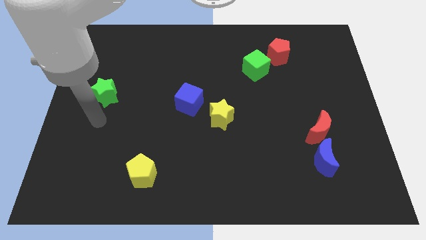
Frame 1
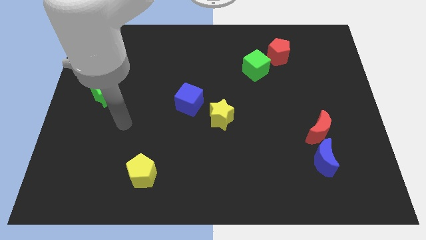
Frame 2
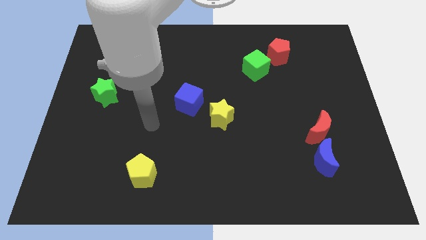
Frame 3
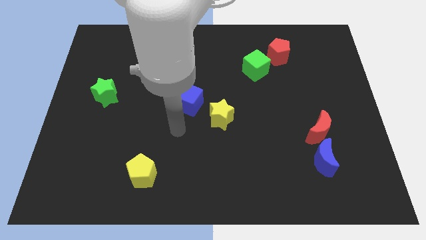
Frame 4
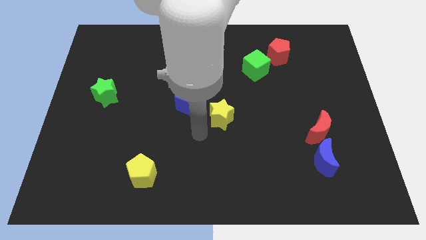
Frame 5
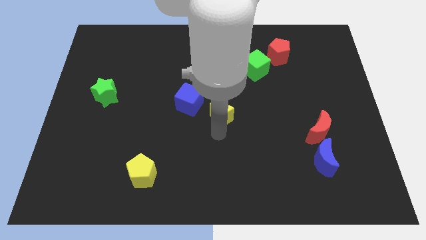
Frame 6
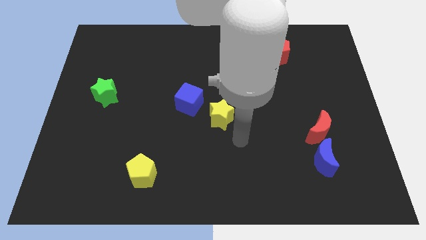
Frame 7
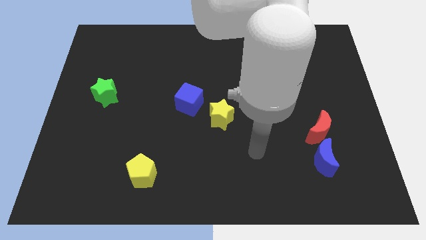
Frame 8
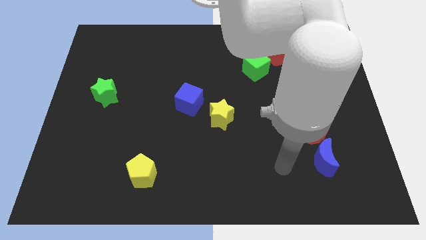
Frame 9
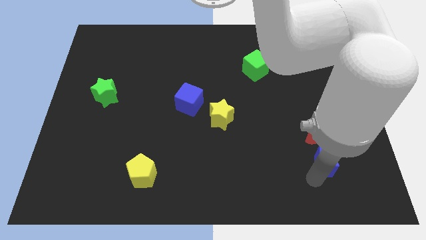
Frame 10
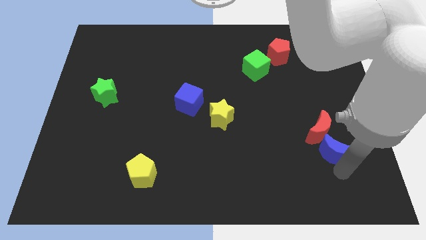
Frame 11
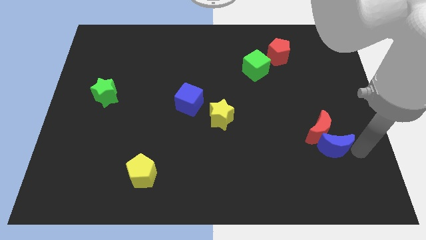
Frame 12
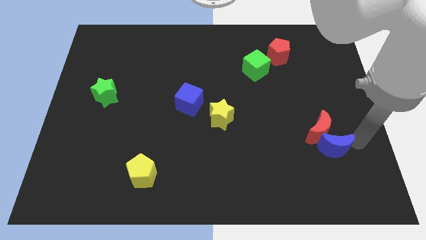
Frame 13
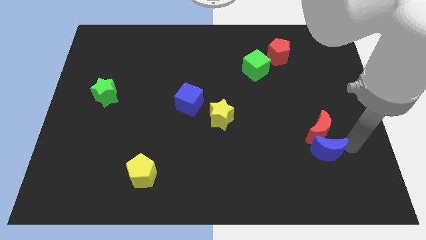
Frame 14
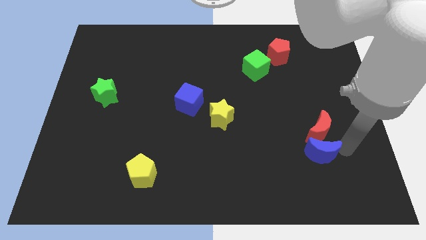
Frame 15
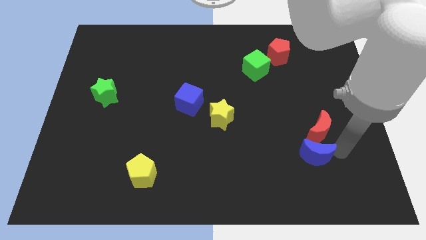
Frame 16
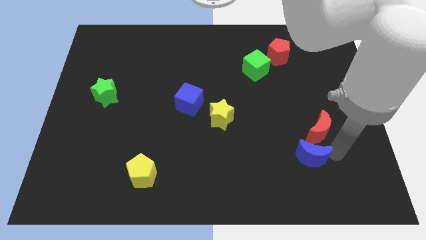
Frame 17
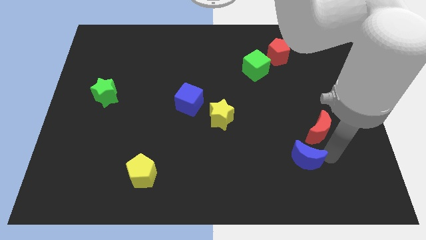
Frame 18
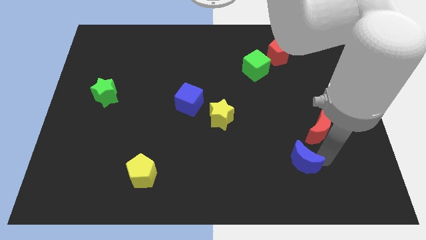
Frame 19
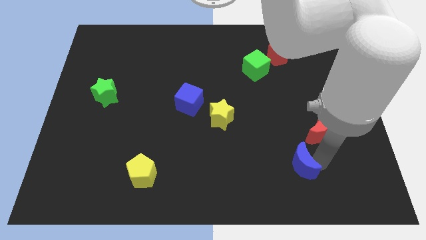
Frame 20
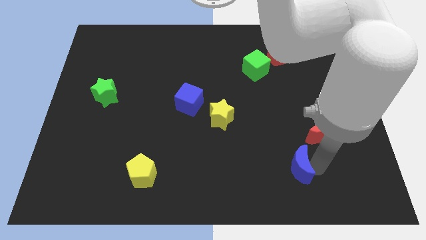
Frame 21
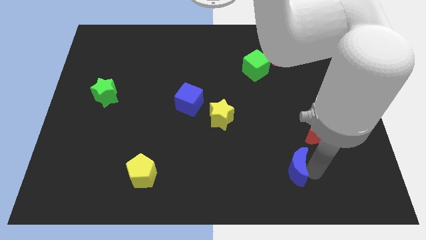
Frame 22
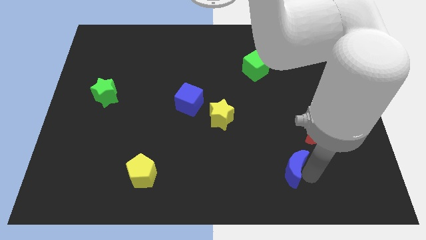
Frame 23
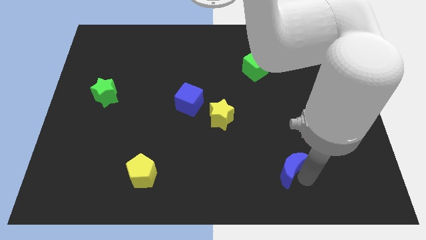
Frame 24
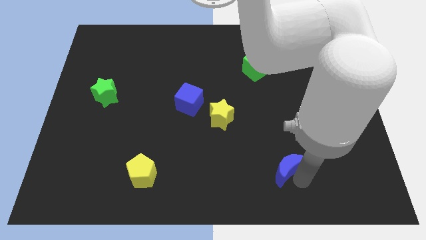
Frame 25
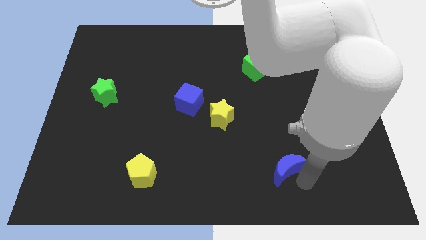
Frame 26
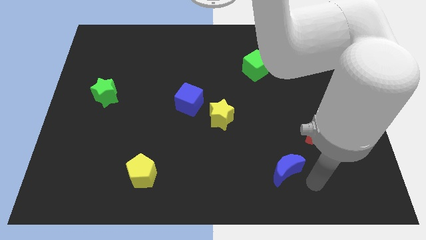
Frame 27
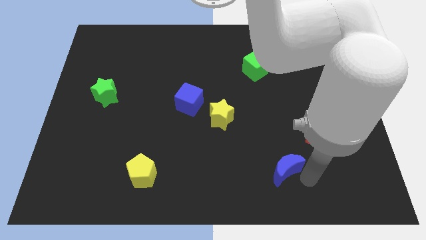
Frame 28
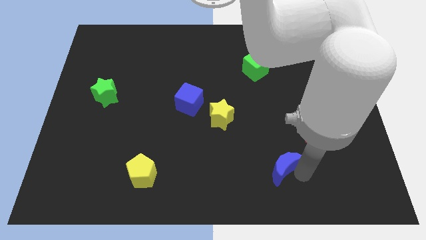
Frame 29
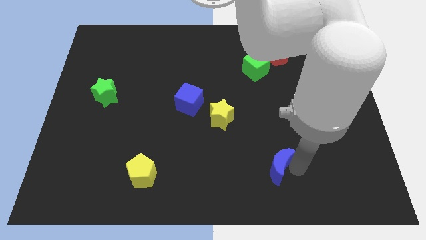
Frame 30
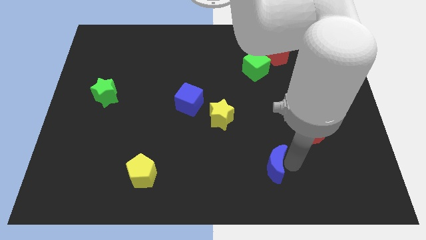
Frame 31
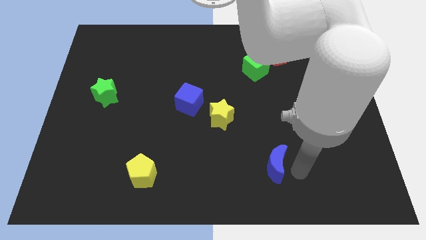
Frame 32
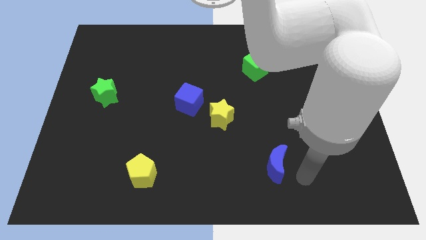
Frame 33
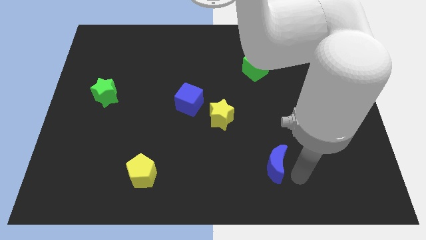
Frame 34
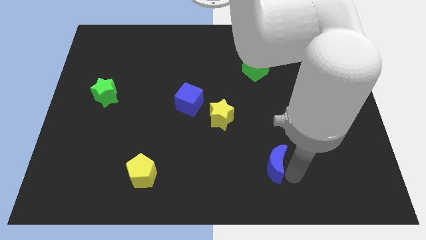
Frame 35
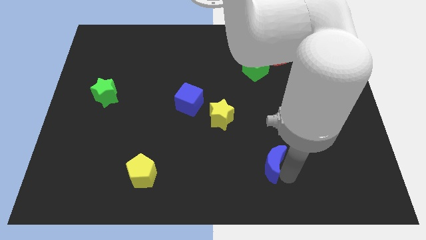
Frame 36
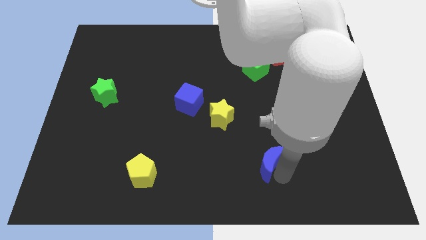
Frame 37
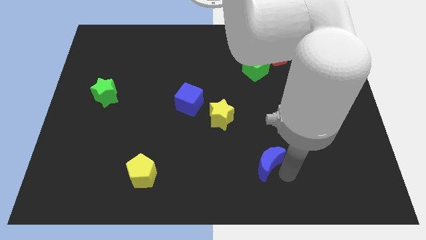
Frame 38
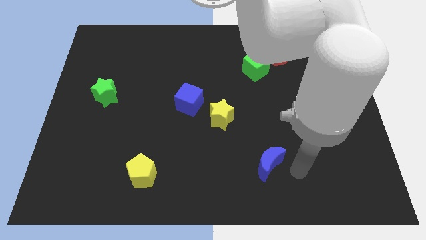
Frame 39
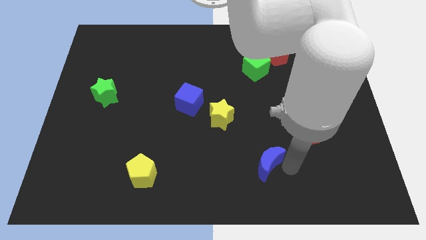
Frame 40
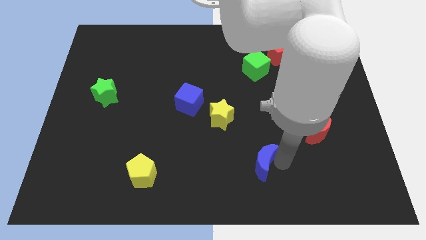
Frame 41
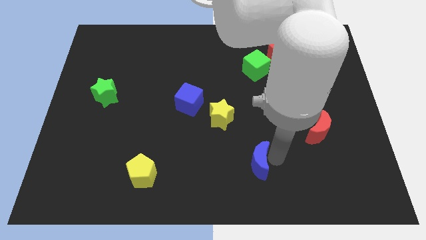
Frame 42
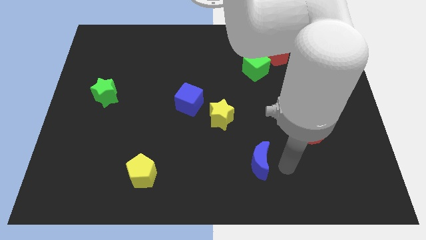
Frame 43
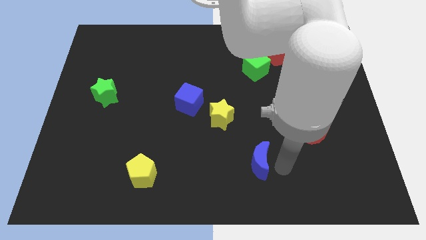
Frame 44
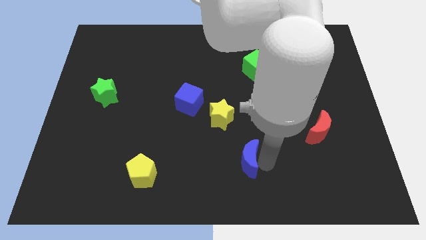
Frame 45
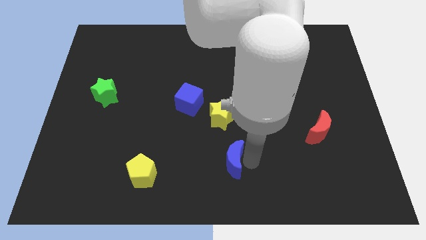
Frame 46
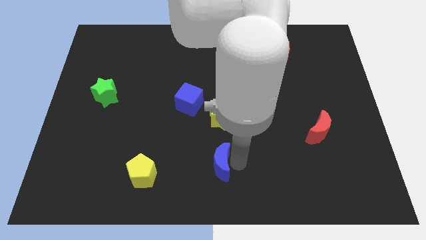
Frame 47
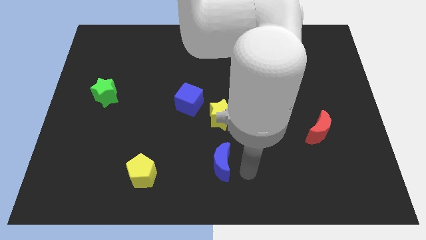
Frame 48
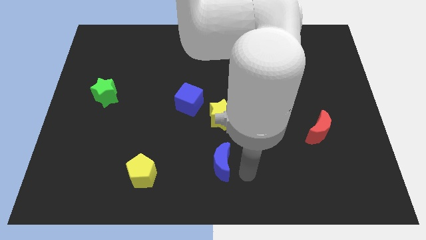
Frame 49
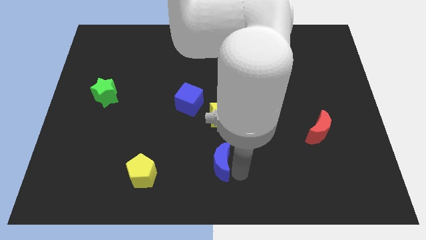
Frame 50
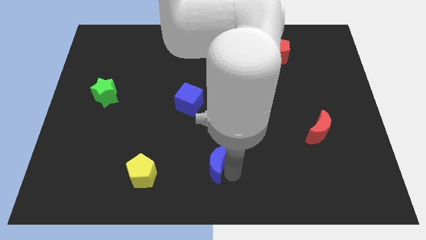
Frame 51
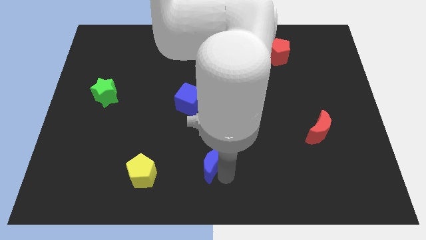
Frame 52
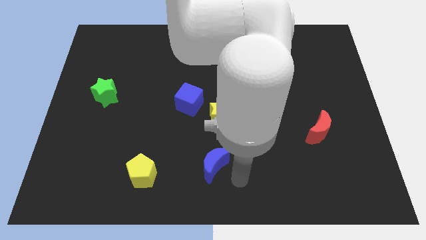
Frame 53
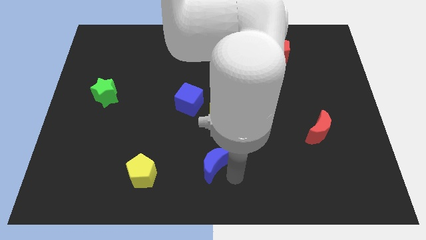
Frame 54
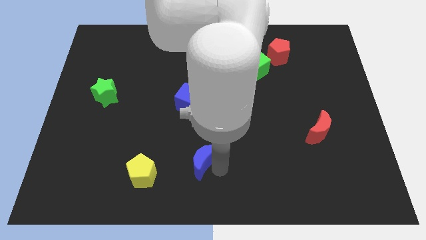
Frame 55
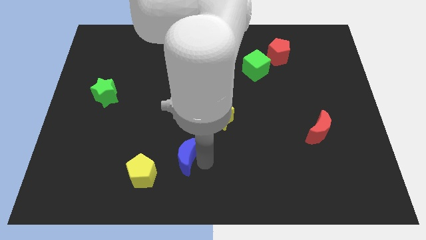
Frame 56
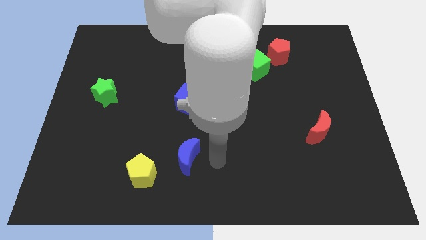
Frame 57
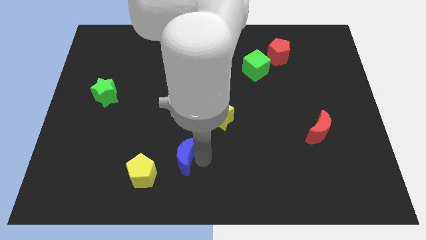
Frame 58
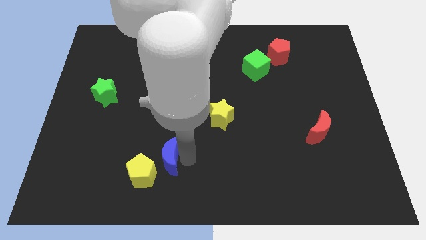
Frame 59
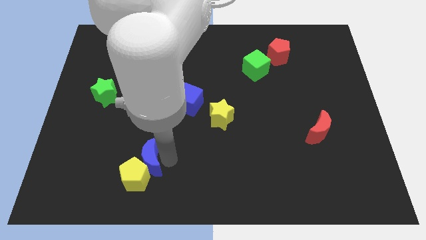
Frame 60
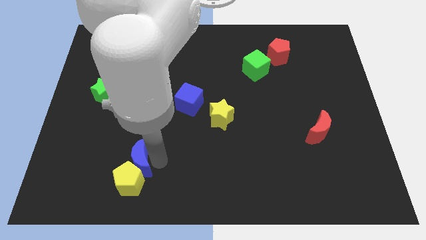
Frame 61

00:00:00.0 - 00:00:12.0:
push the blue moon to the top left of the yellow pentagon
